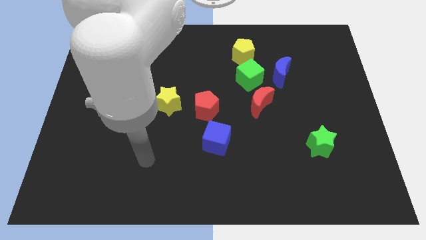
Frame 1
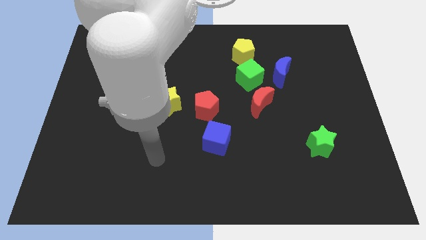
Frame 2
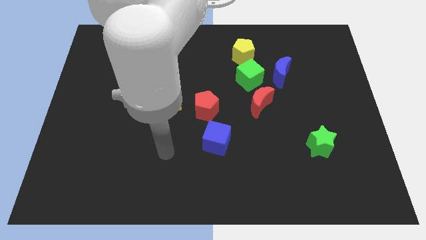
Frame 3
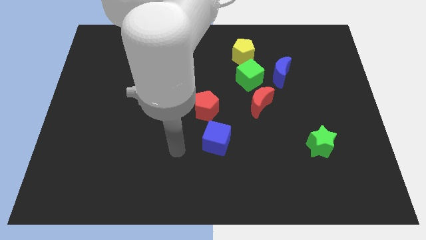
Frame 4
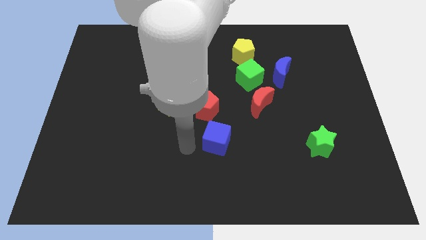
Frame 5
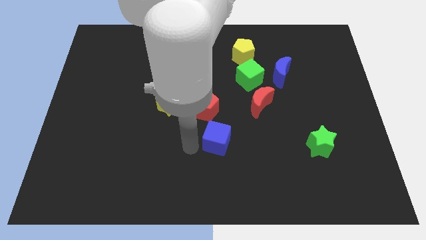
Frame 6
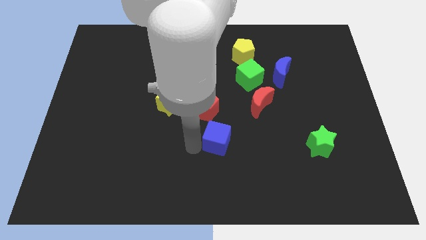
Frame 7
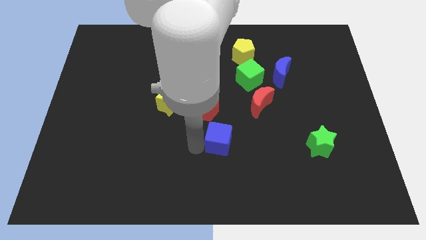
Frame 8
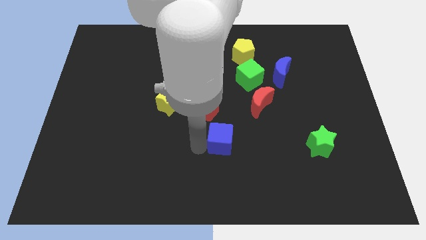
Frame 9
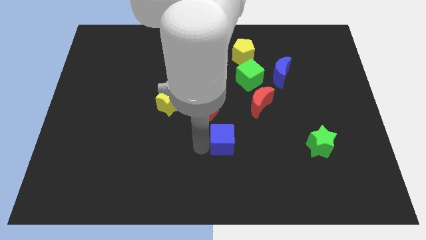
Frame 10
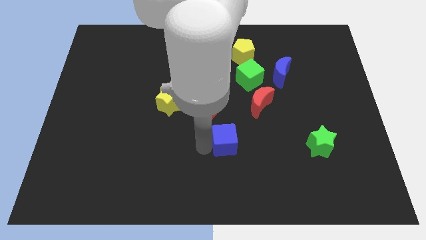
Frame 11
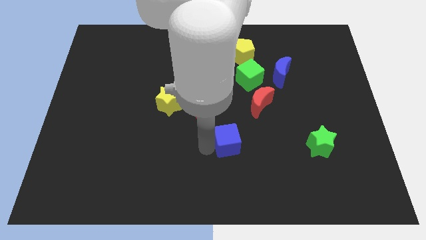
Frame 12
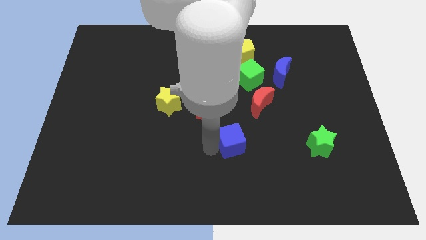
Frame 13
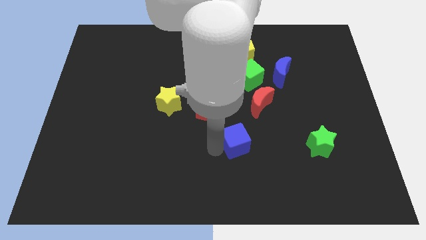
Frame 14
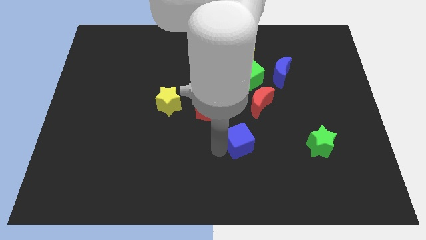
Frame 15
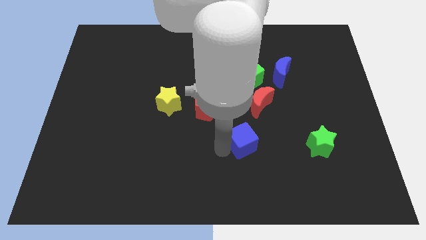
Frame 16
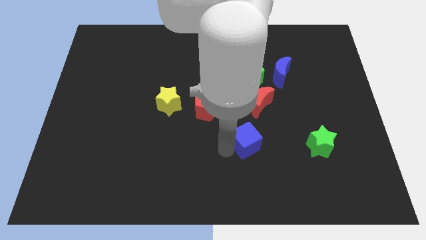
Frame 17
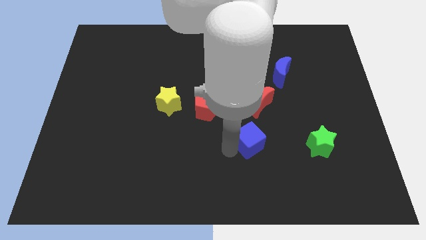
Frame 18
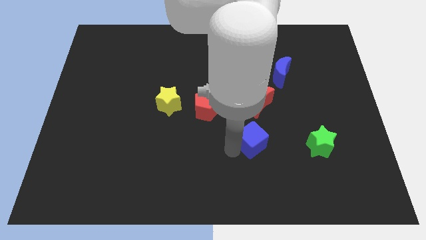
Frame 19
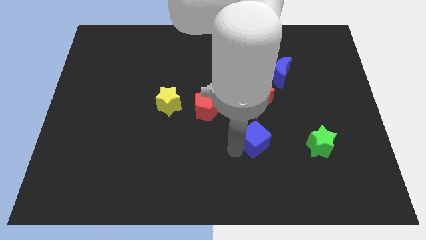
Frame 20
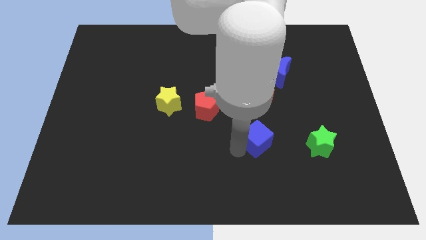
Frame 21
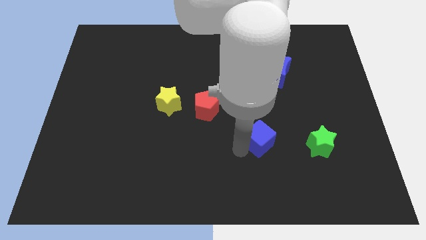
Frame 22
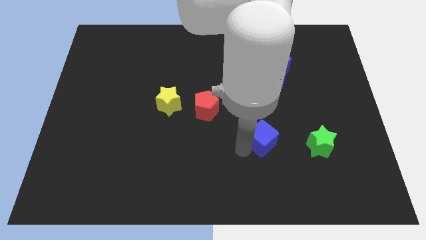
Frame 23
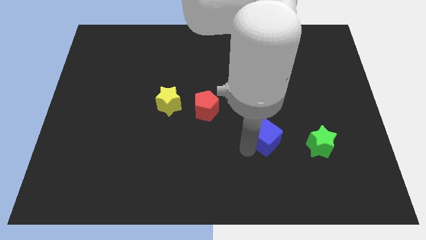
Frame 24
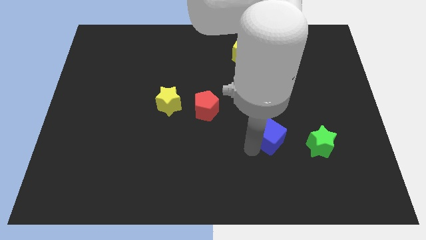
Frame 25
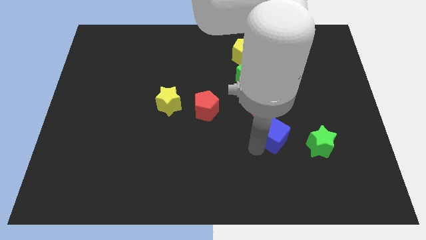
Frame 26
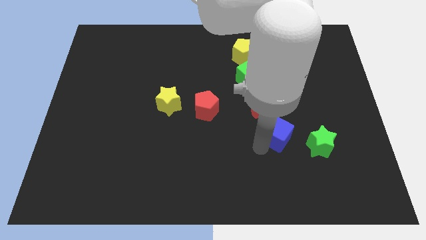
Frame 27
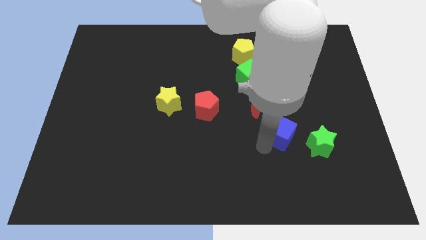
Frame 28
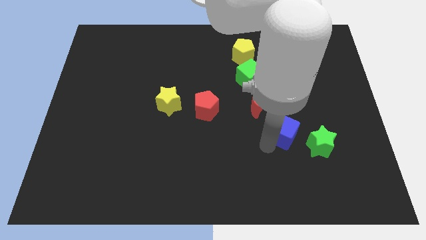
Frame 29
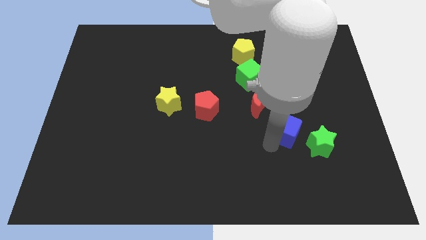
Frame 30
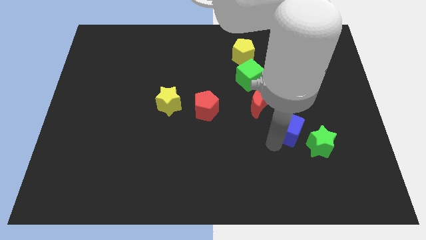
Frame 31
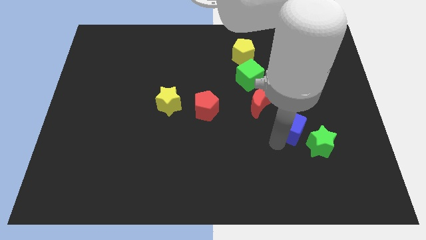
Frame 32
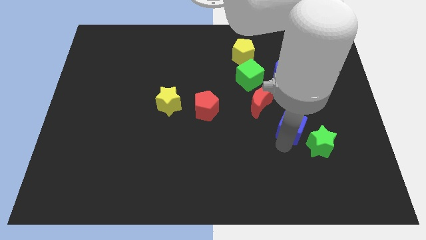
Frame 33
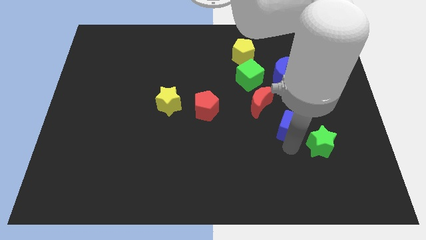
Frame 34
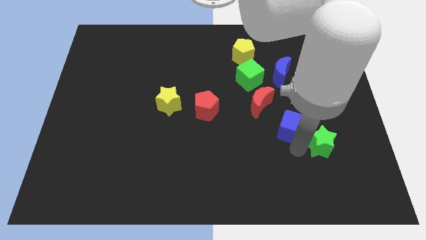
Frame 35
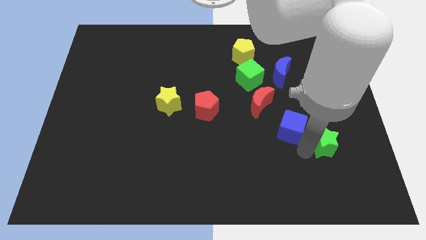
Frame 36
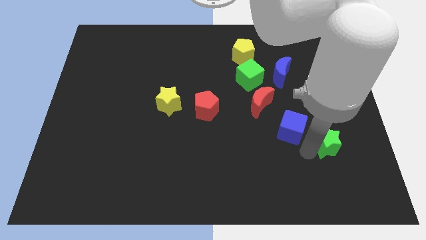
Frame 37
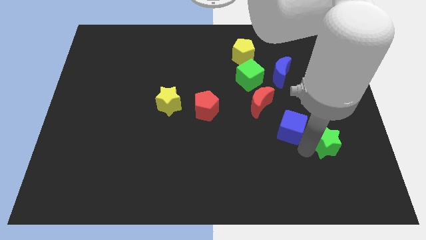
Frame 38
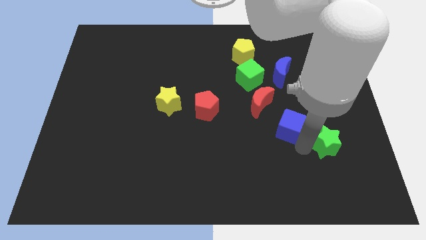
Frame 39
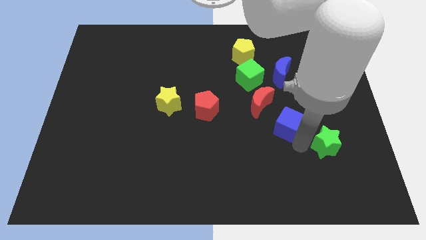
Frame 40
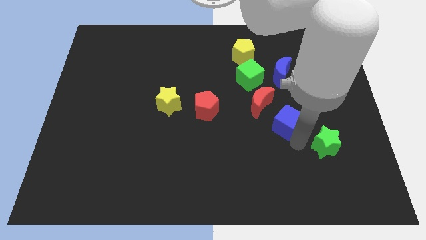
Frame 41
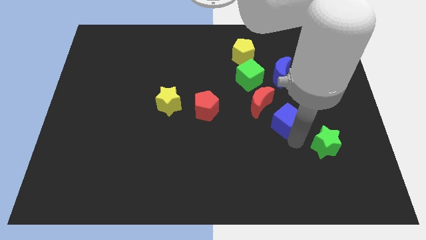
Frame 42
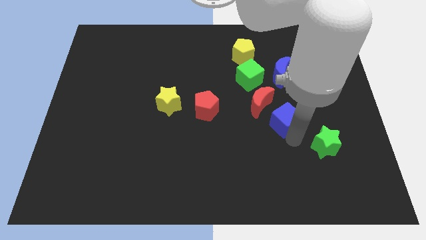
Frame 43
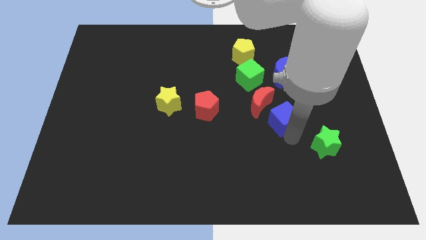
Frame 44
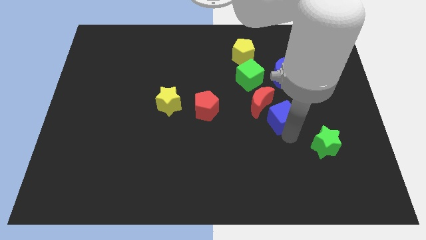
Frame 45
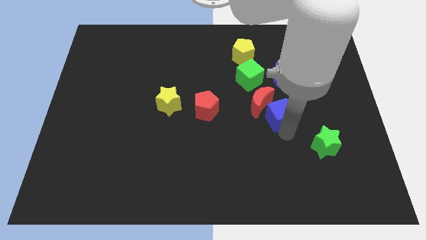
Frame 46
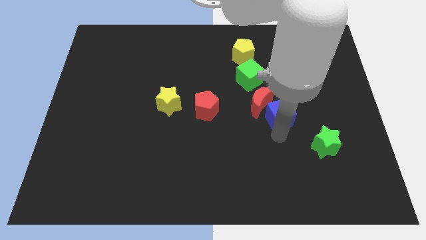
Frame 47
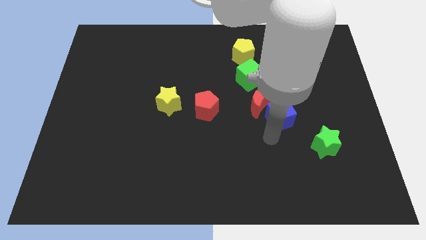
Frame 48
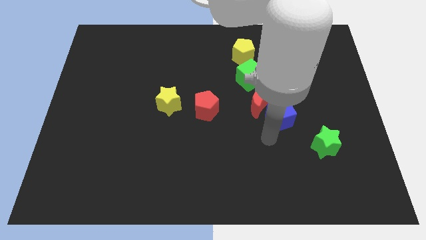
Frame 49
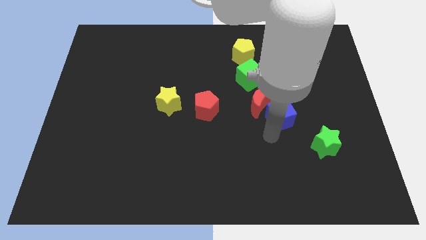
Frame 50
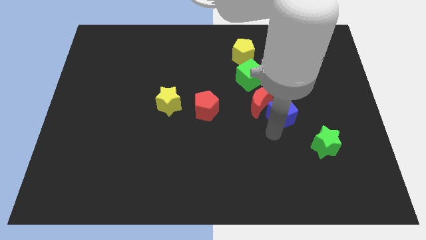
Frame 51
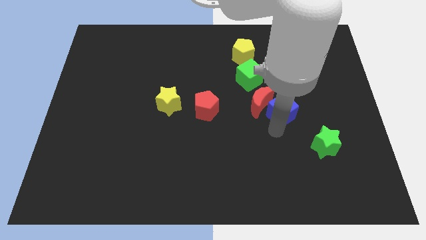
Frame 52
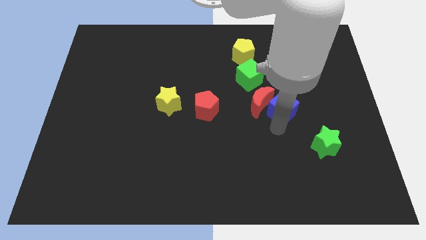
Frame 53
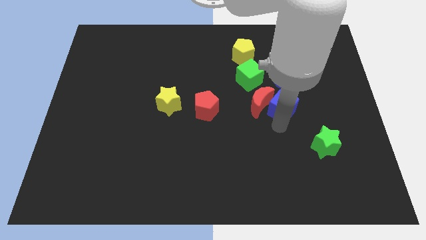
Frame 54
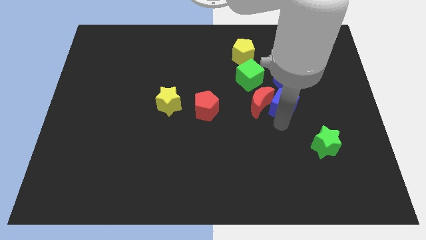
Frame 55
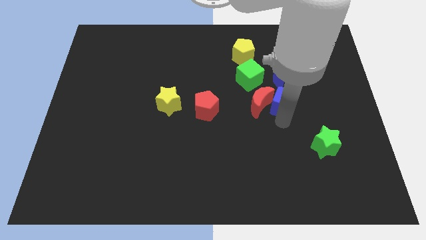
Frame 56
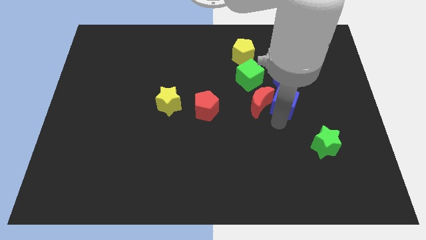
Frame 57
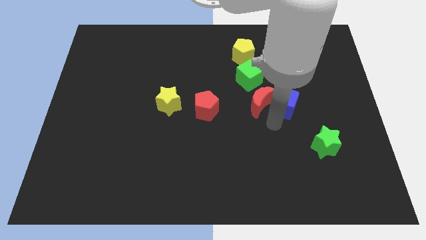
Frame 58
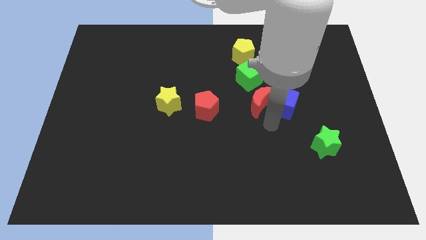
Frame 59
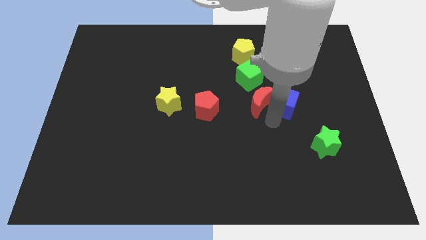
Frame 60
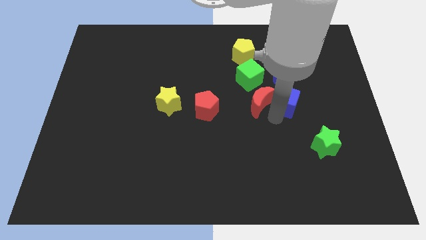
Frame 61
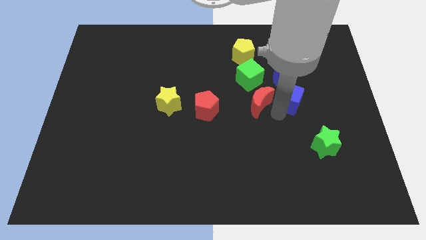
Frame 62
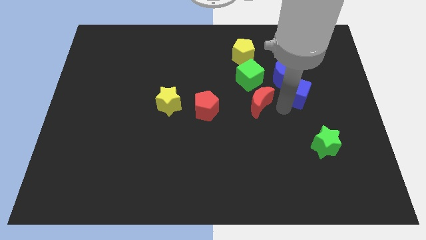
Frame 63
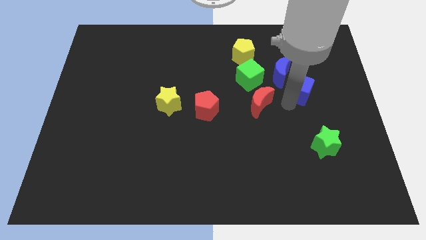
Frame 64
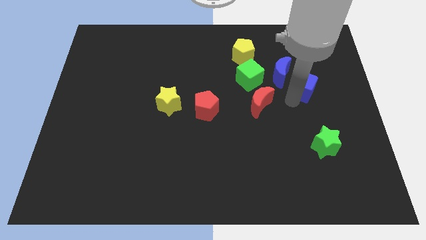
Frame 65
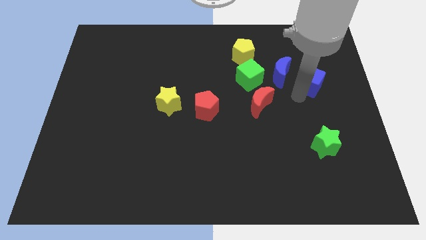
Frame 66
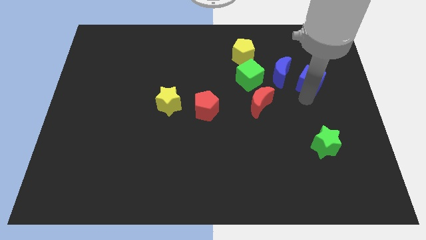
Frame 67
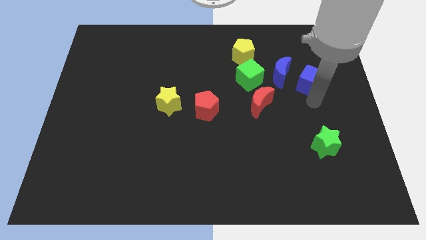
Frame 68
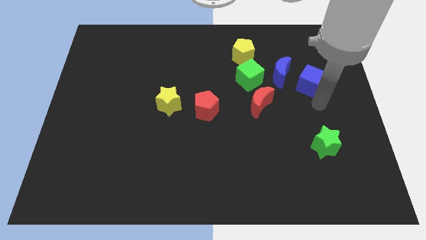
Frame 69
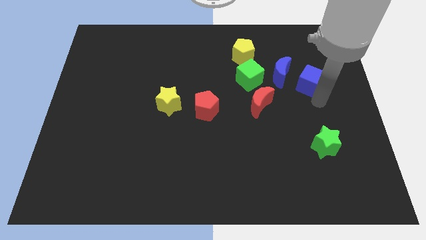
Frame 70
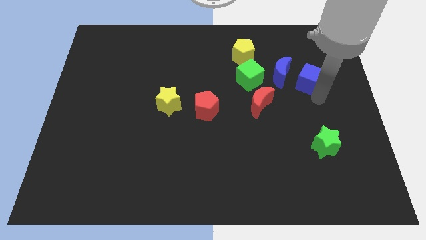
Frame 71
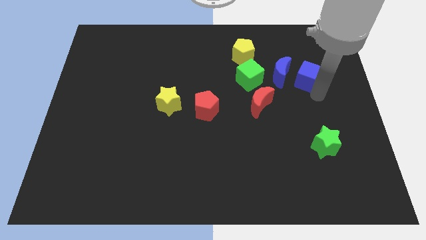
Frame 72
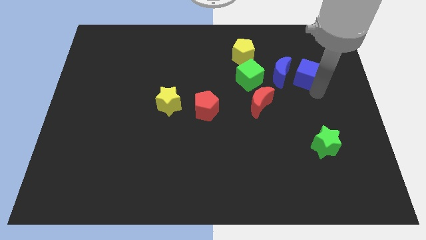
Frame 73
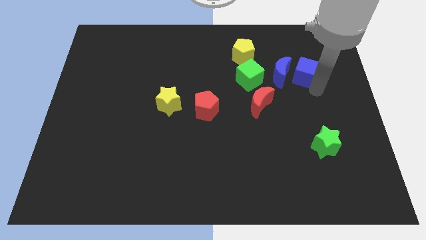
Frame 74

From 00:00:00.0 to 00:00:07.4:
push the blue cube to the top right side of the blue moon
